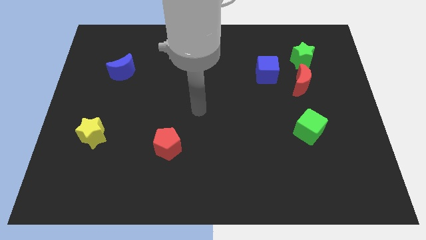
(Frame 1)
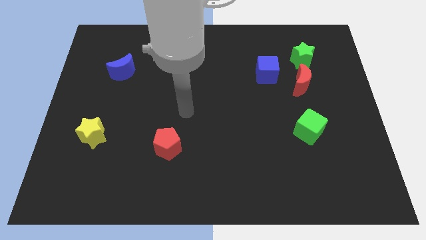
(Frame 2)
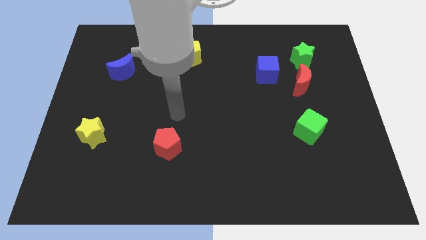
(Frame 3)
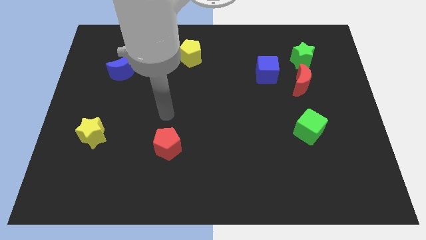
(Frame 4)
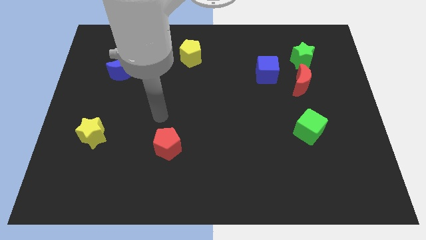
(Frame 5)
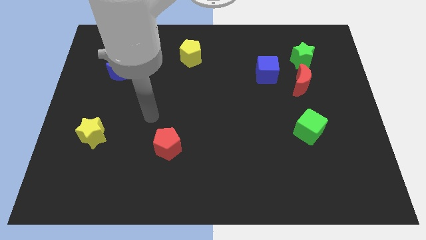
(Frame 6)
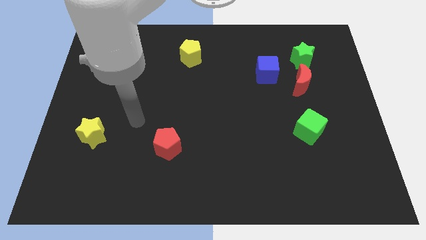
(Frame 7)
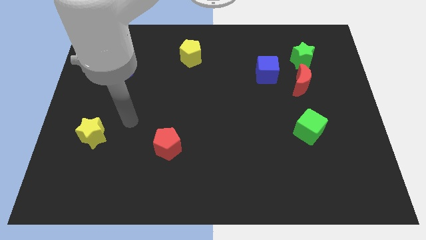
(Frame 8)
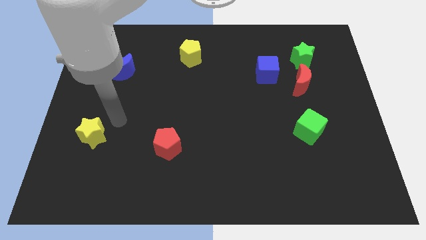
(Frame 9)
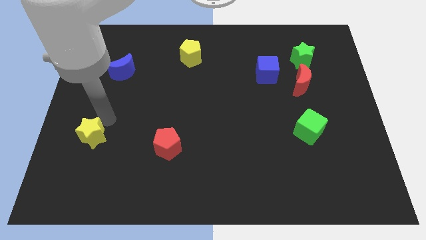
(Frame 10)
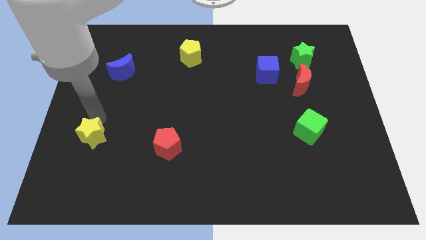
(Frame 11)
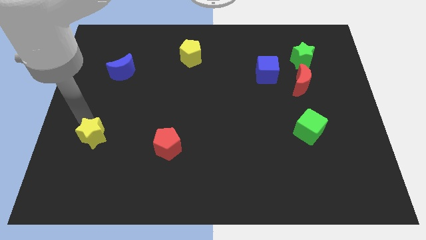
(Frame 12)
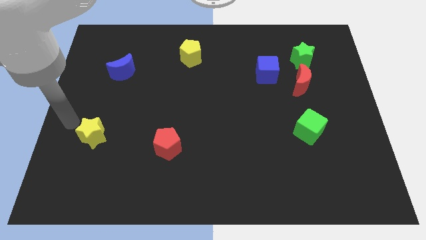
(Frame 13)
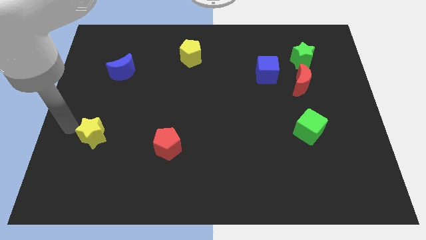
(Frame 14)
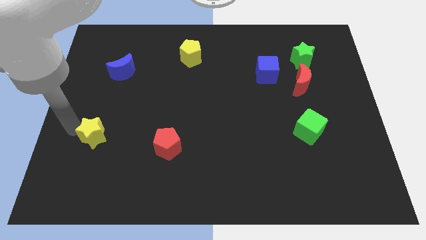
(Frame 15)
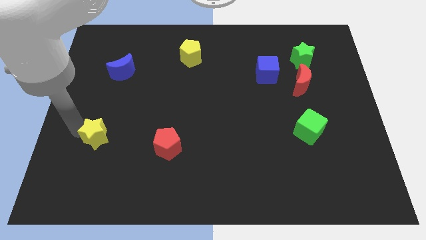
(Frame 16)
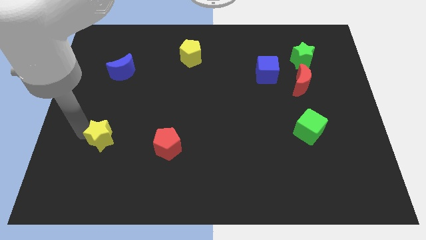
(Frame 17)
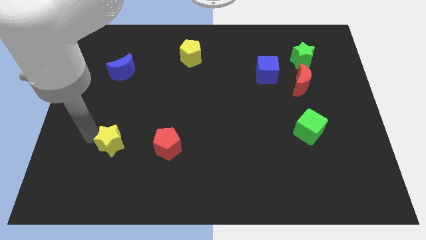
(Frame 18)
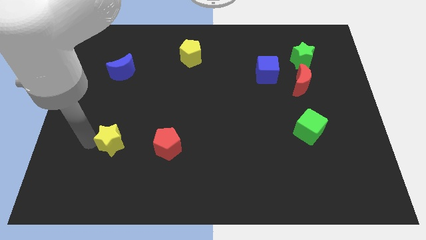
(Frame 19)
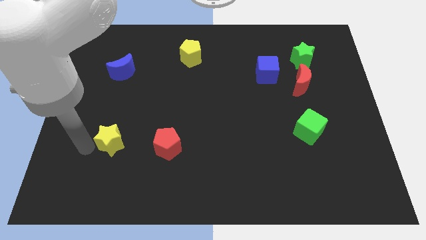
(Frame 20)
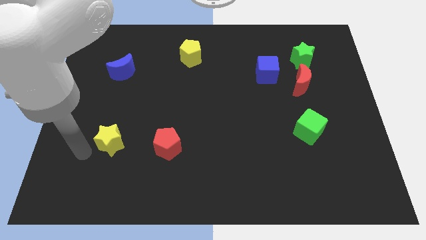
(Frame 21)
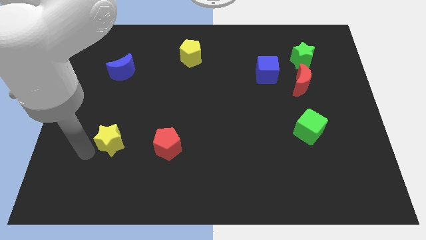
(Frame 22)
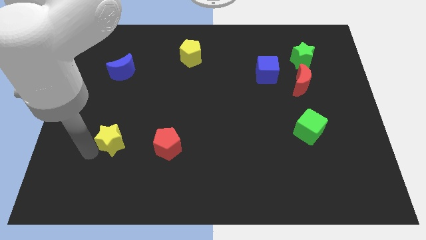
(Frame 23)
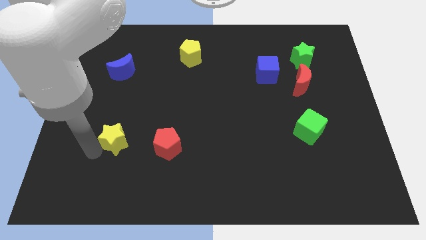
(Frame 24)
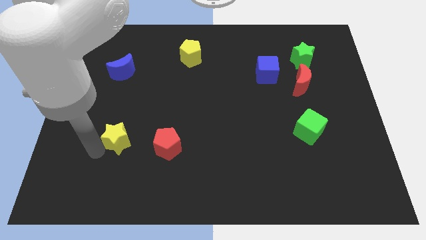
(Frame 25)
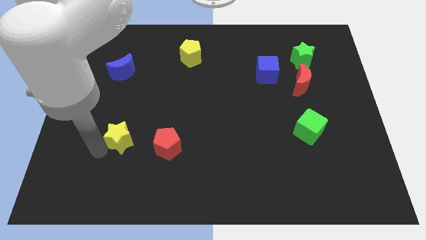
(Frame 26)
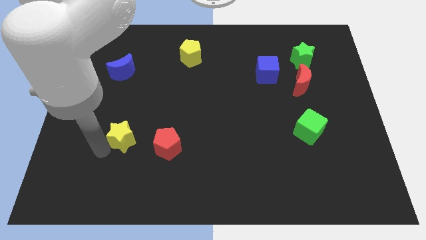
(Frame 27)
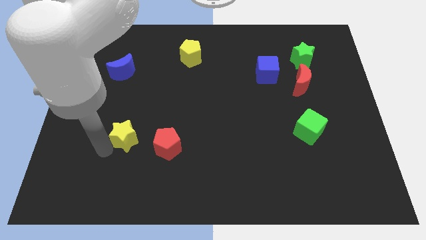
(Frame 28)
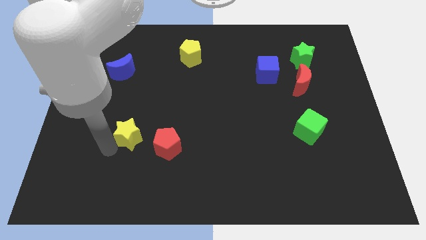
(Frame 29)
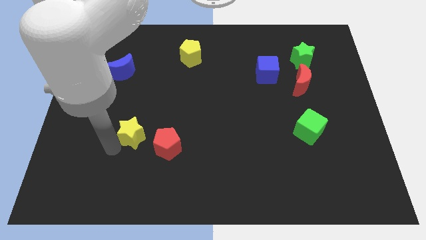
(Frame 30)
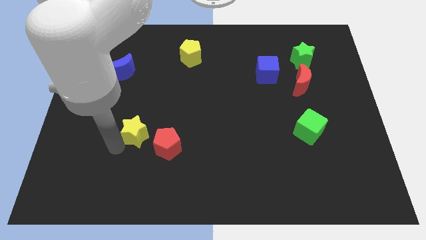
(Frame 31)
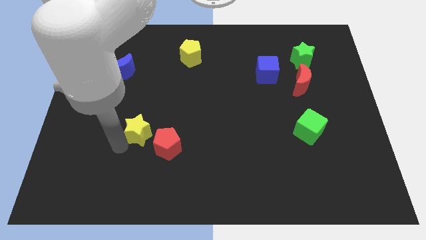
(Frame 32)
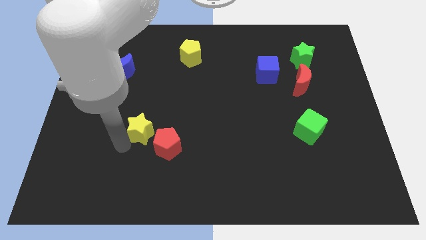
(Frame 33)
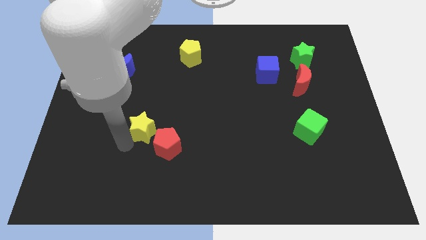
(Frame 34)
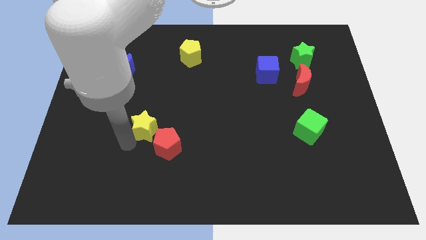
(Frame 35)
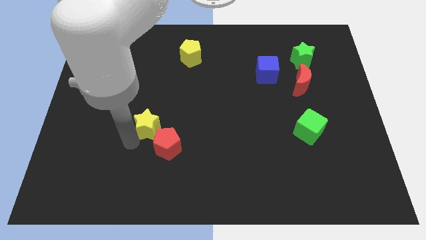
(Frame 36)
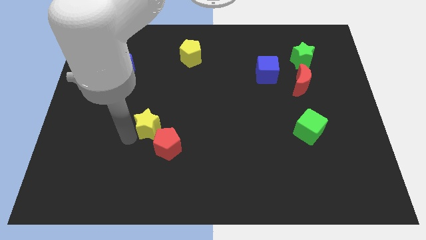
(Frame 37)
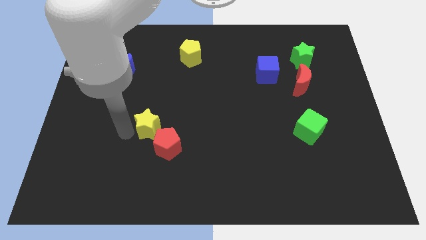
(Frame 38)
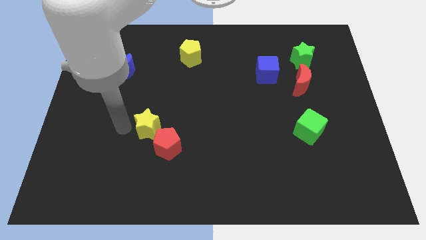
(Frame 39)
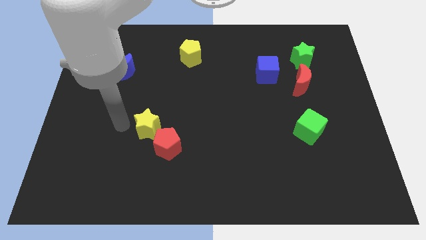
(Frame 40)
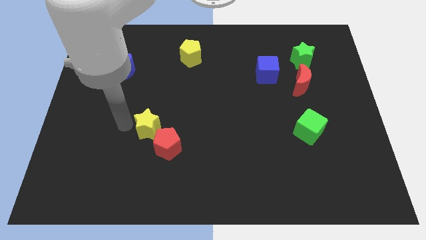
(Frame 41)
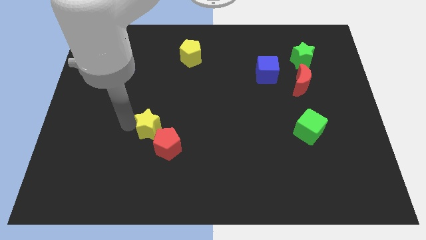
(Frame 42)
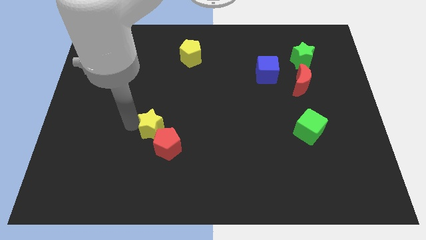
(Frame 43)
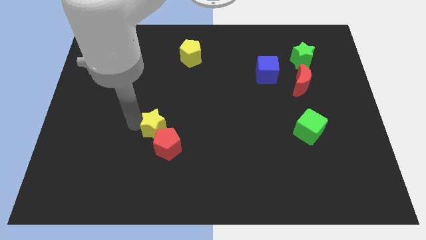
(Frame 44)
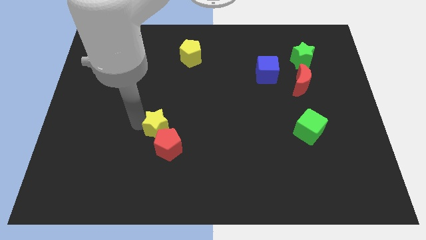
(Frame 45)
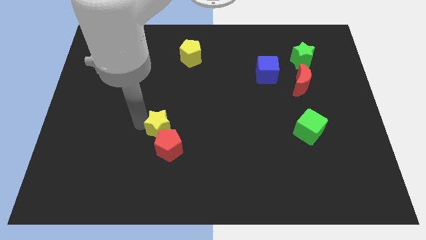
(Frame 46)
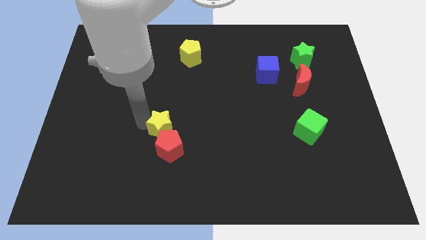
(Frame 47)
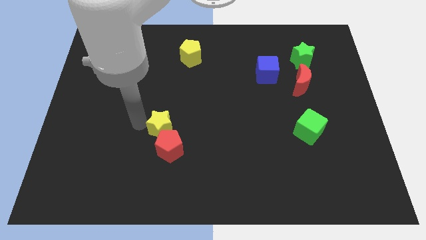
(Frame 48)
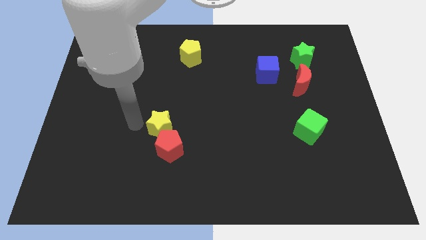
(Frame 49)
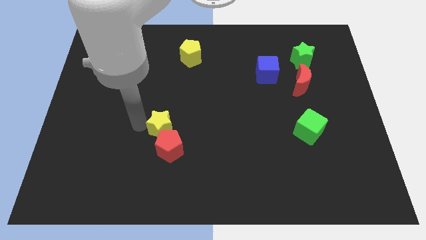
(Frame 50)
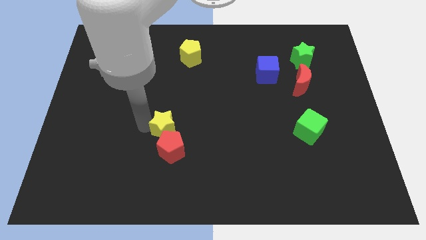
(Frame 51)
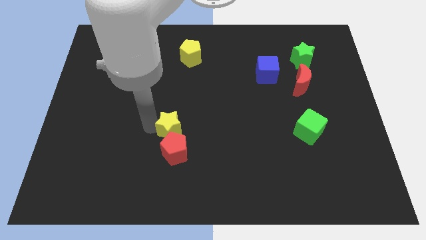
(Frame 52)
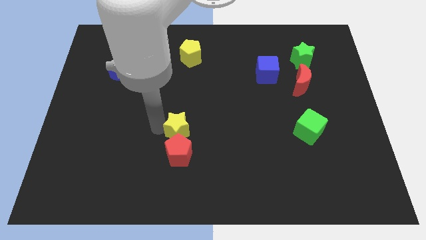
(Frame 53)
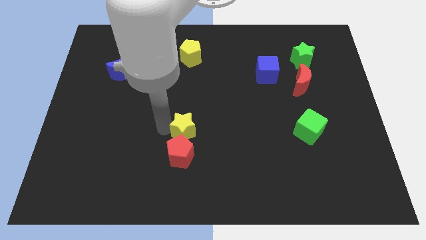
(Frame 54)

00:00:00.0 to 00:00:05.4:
move the yellow star right

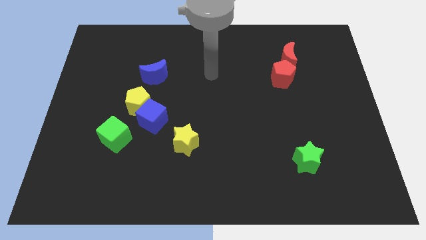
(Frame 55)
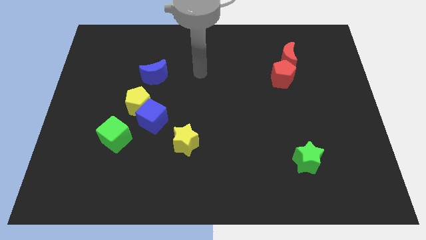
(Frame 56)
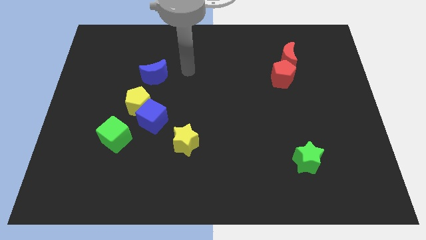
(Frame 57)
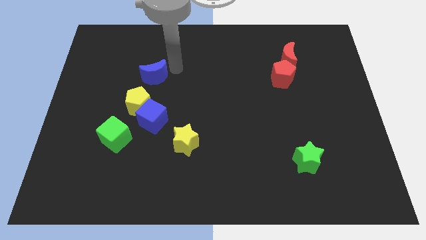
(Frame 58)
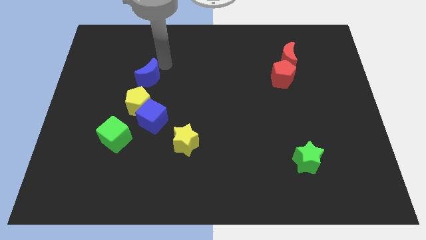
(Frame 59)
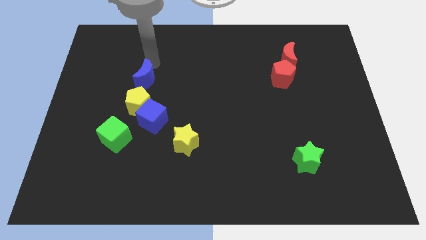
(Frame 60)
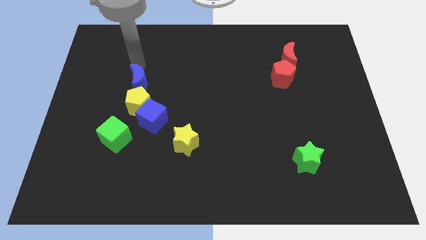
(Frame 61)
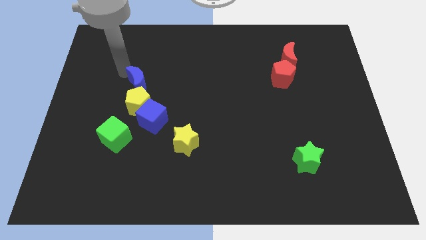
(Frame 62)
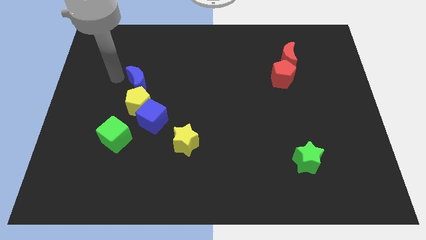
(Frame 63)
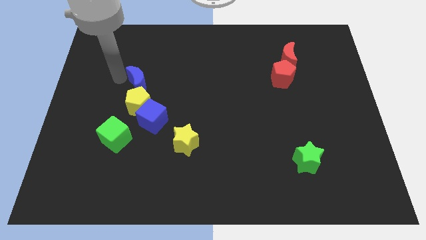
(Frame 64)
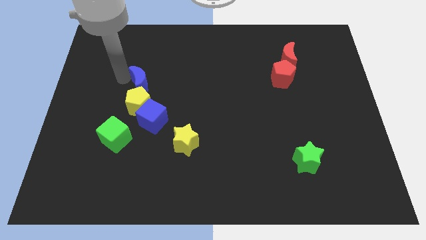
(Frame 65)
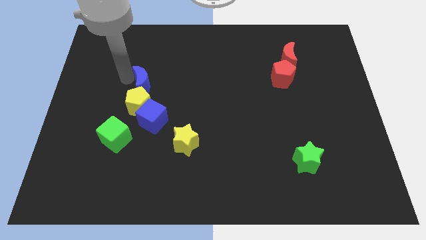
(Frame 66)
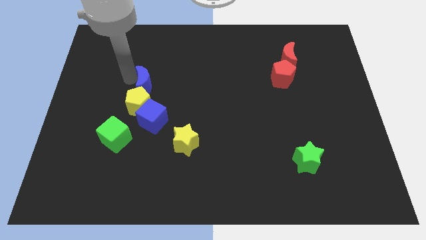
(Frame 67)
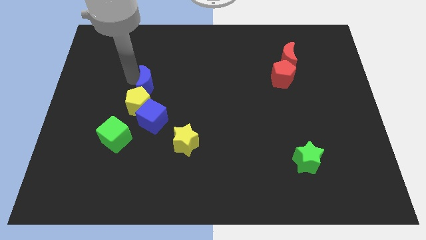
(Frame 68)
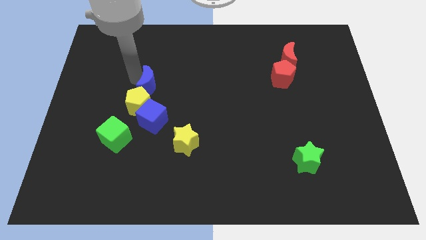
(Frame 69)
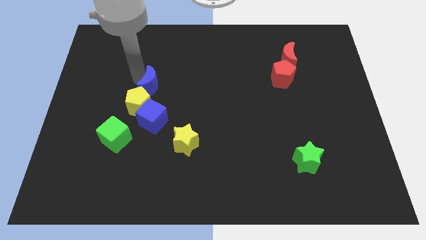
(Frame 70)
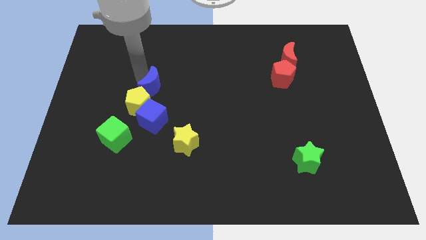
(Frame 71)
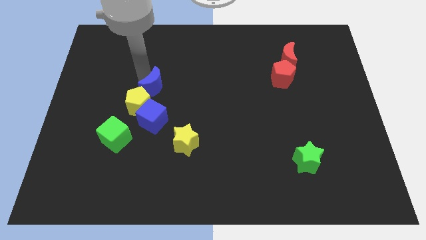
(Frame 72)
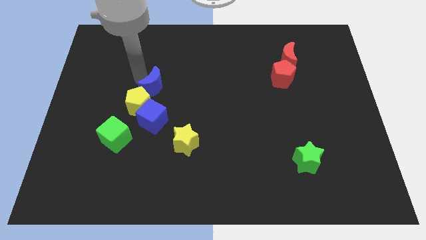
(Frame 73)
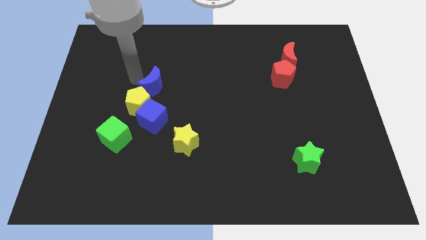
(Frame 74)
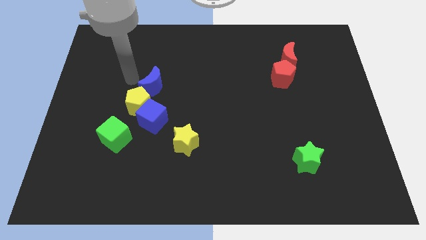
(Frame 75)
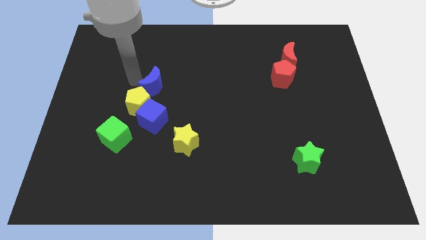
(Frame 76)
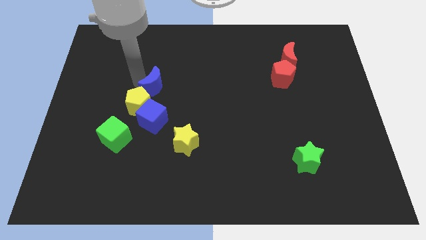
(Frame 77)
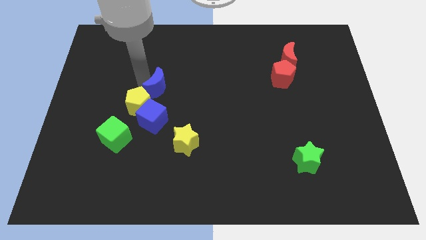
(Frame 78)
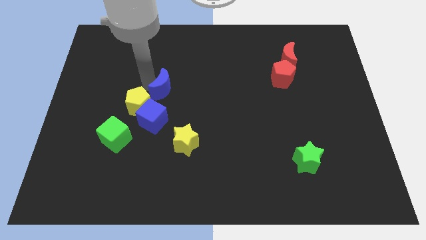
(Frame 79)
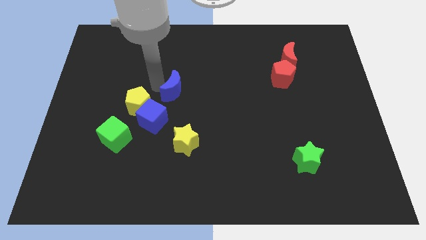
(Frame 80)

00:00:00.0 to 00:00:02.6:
push the blue moon diagonally downwards and right a bit
